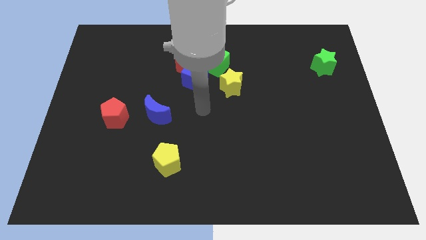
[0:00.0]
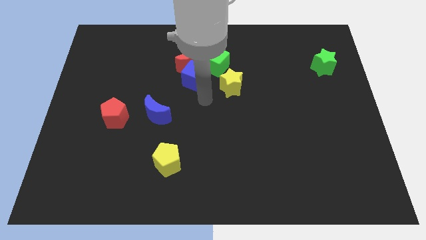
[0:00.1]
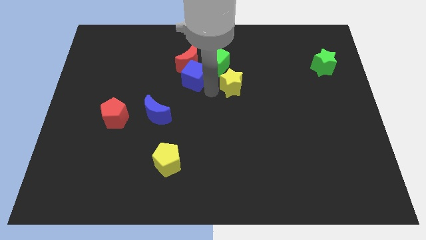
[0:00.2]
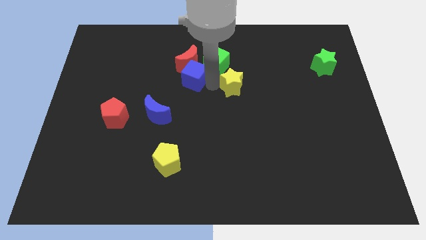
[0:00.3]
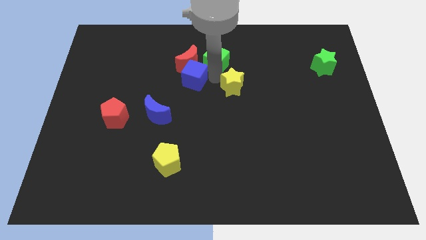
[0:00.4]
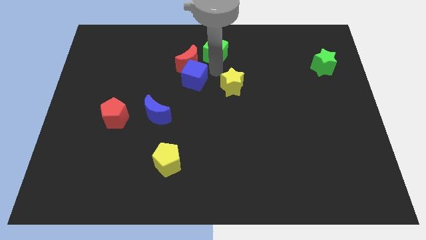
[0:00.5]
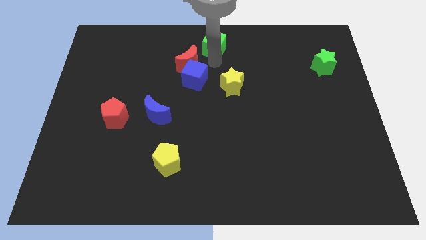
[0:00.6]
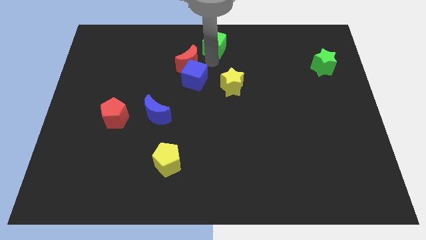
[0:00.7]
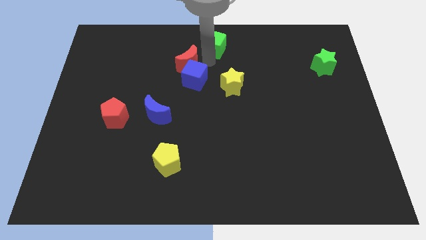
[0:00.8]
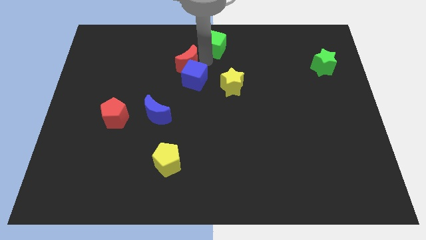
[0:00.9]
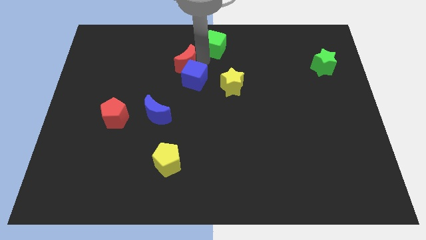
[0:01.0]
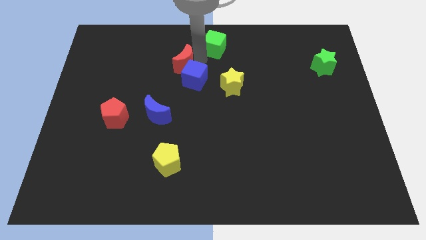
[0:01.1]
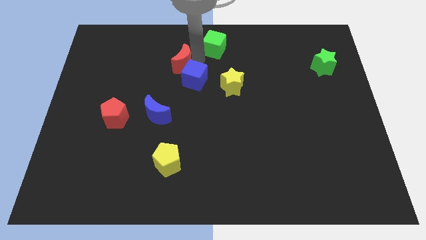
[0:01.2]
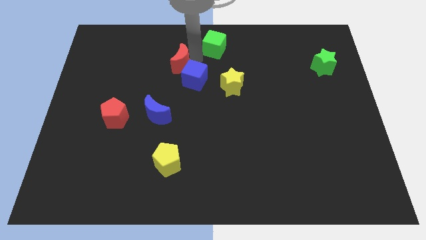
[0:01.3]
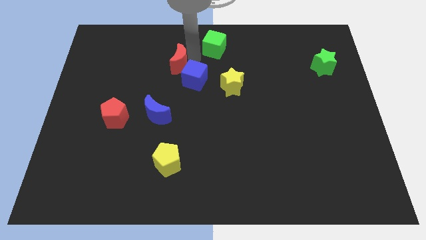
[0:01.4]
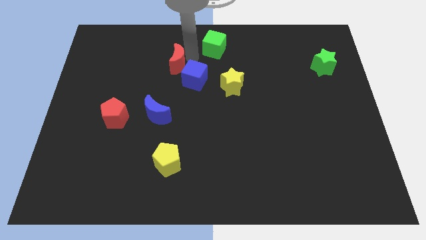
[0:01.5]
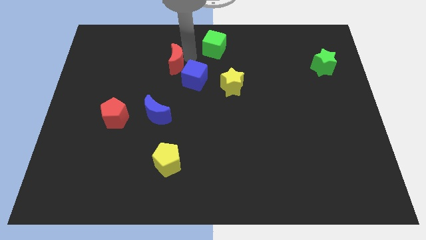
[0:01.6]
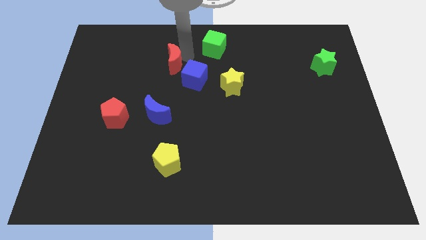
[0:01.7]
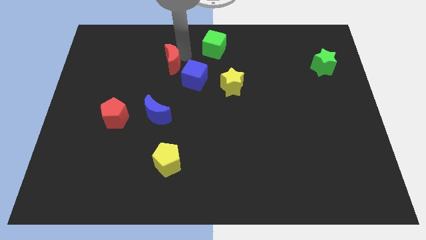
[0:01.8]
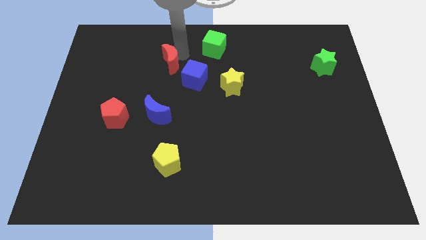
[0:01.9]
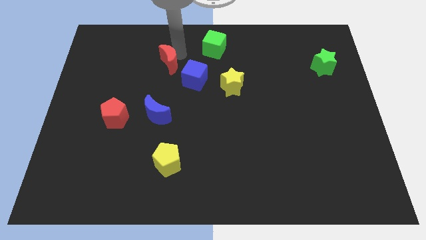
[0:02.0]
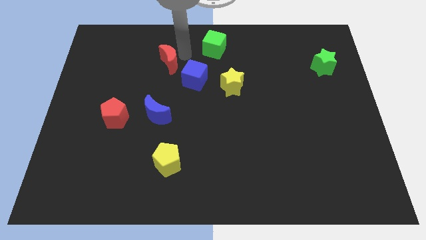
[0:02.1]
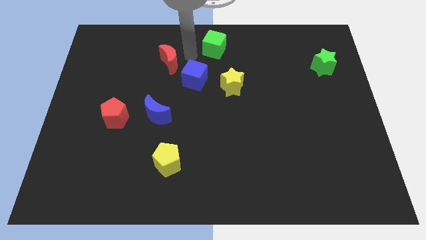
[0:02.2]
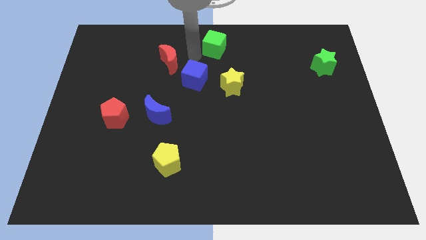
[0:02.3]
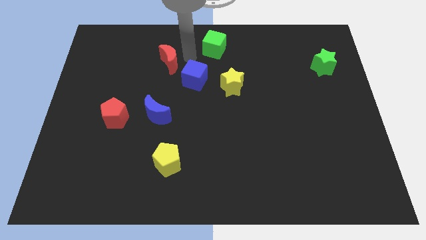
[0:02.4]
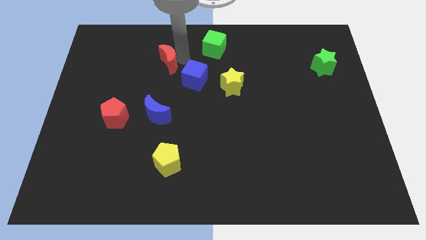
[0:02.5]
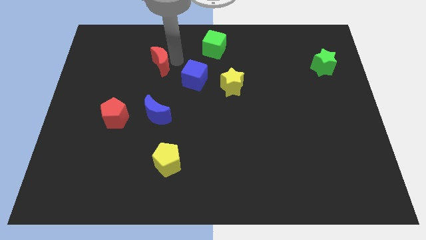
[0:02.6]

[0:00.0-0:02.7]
slightly slide the red moon left

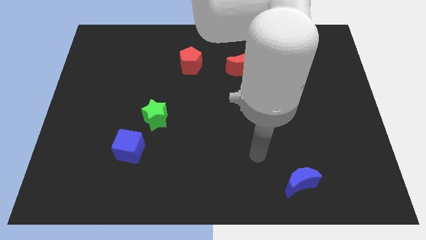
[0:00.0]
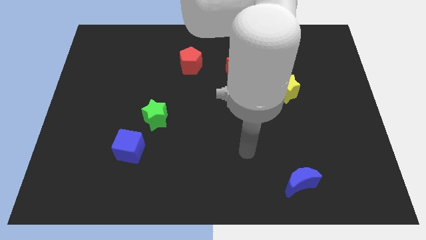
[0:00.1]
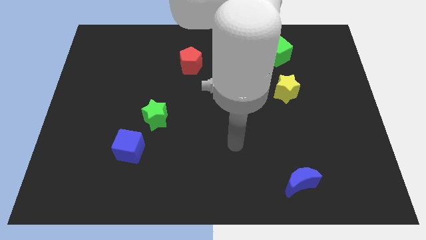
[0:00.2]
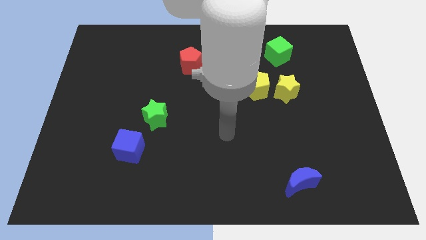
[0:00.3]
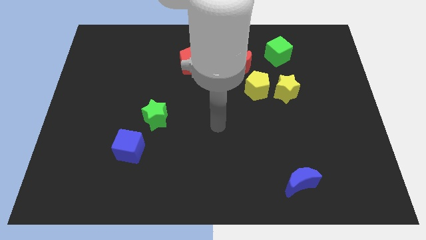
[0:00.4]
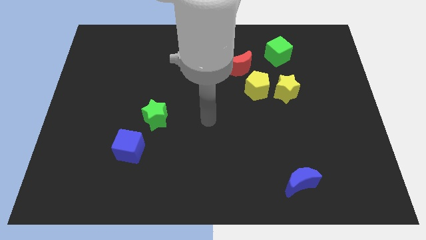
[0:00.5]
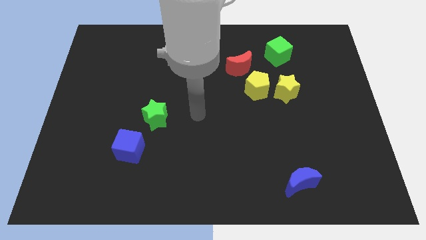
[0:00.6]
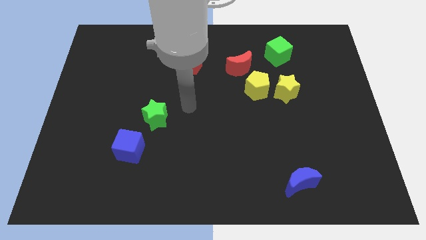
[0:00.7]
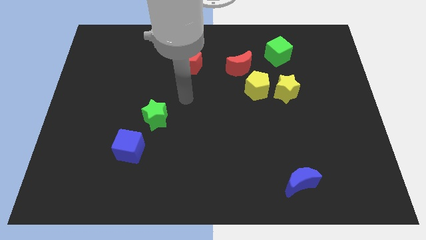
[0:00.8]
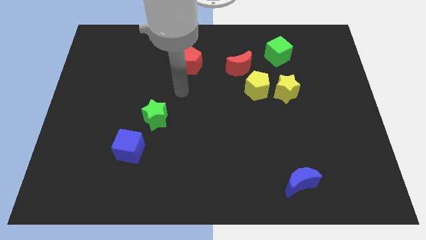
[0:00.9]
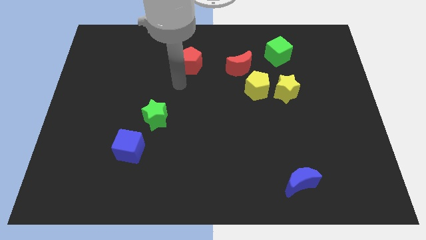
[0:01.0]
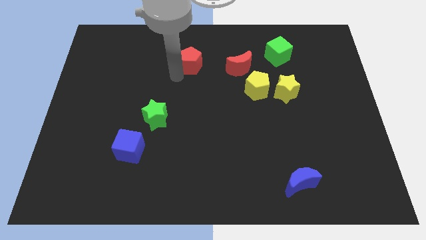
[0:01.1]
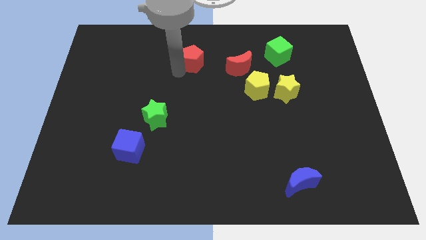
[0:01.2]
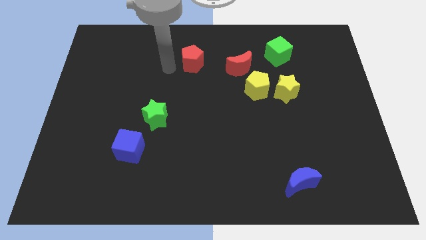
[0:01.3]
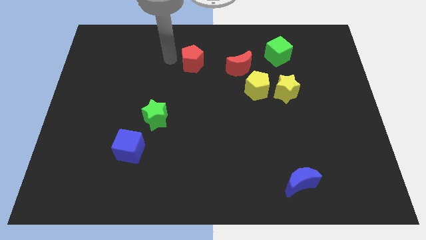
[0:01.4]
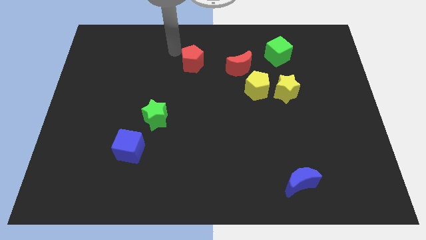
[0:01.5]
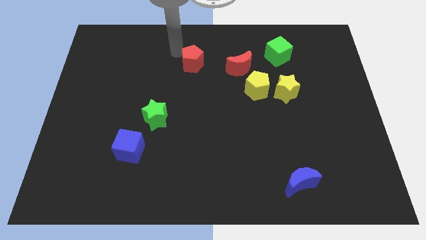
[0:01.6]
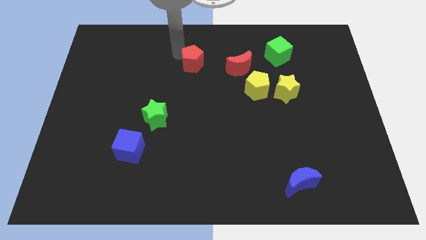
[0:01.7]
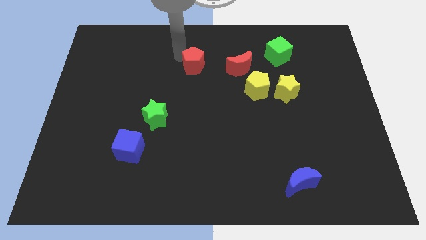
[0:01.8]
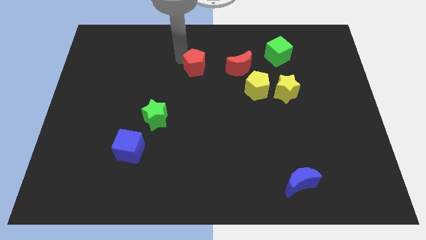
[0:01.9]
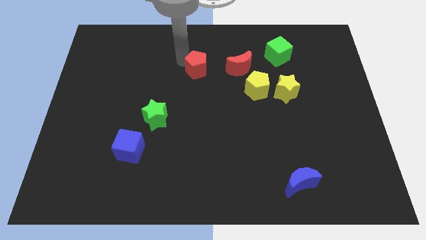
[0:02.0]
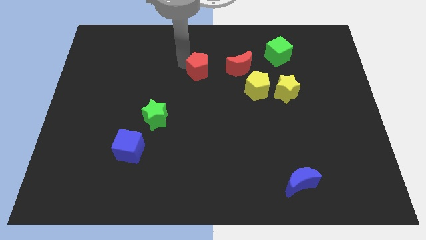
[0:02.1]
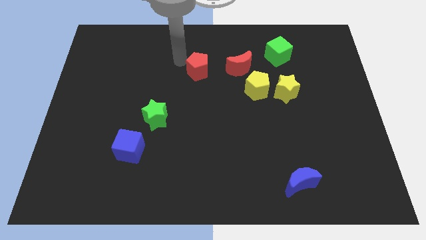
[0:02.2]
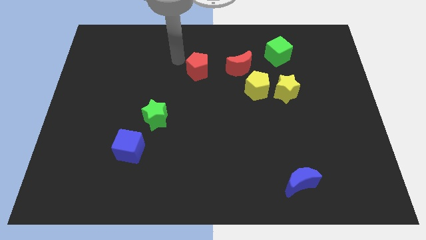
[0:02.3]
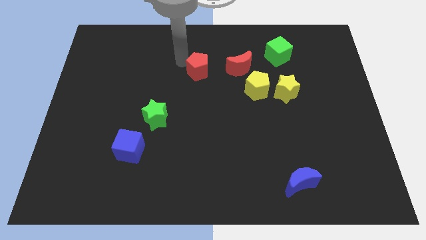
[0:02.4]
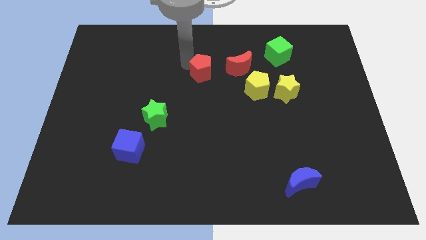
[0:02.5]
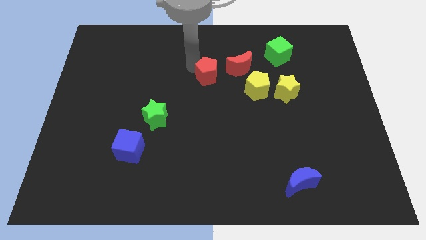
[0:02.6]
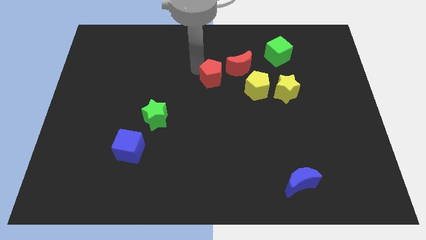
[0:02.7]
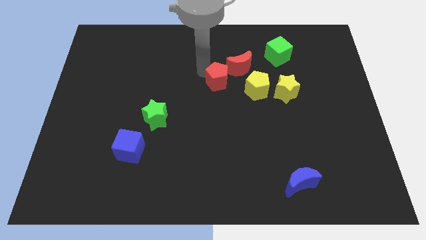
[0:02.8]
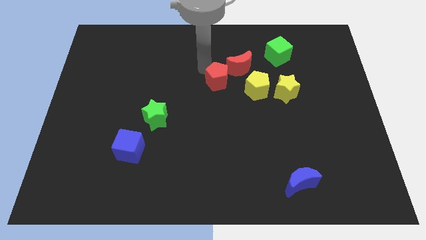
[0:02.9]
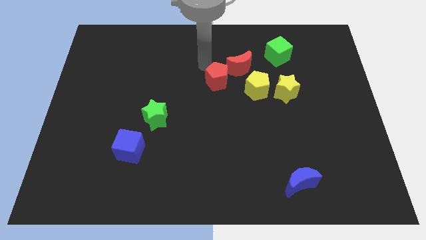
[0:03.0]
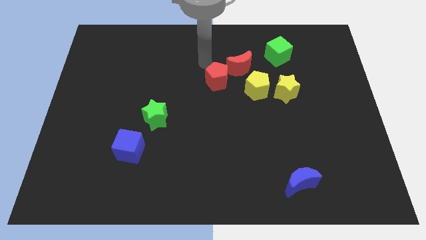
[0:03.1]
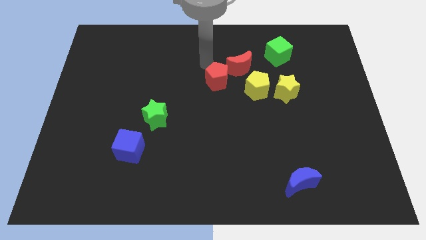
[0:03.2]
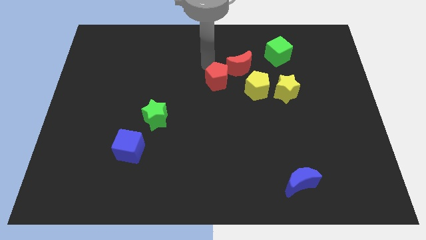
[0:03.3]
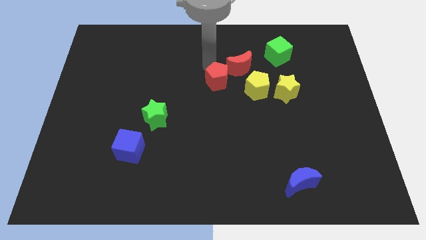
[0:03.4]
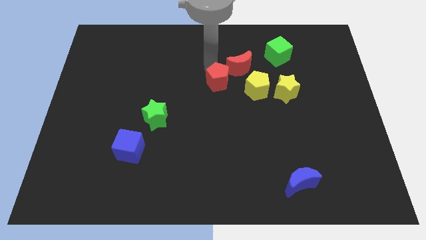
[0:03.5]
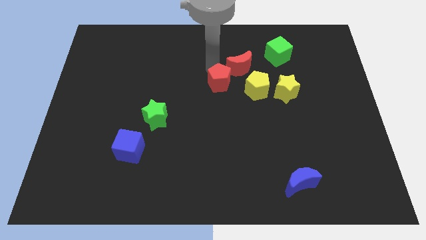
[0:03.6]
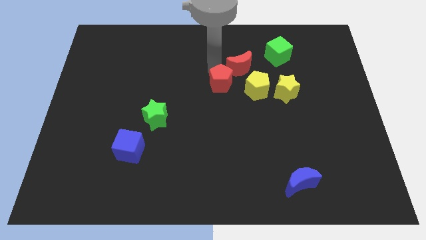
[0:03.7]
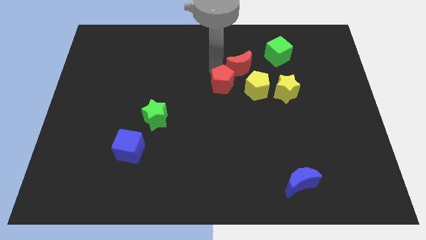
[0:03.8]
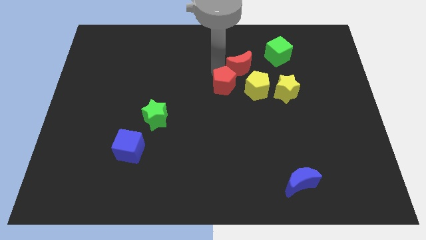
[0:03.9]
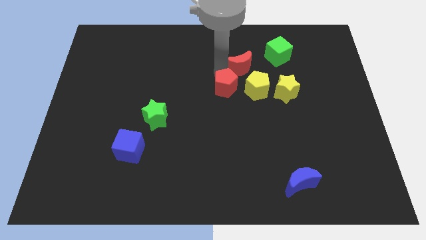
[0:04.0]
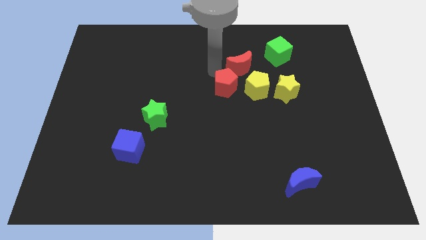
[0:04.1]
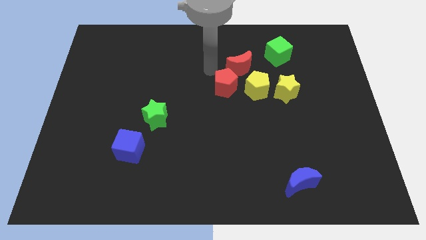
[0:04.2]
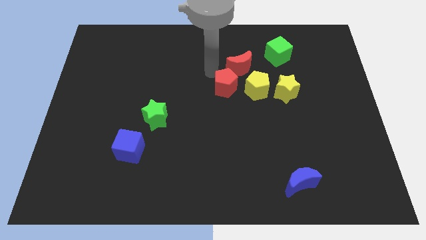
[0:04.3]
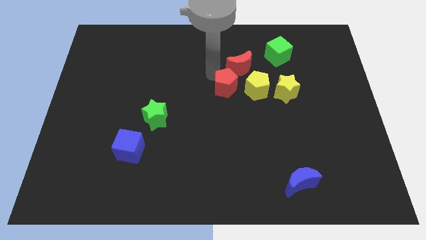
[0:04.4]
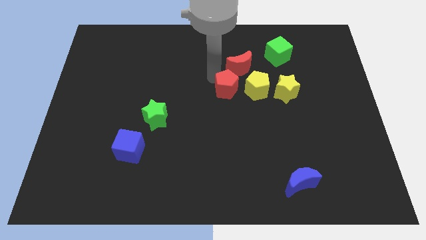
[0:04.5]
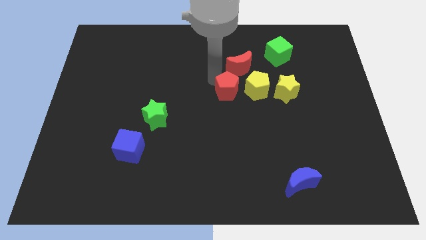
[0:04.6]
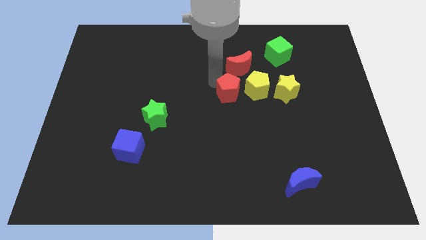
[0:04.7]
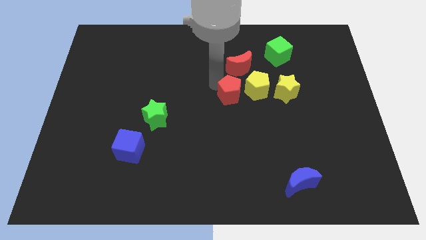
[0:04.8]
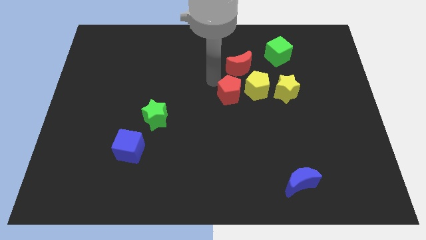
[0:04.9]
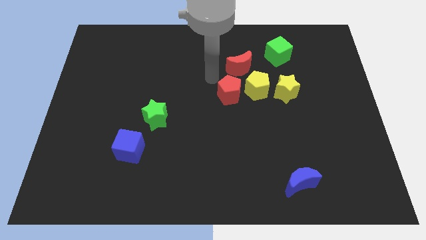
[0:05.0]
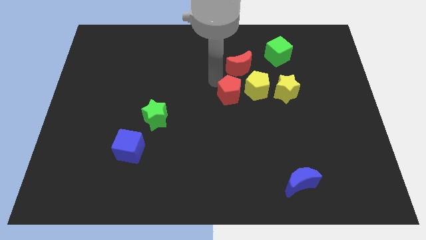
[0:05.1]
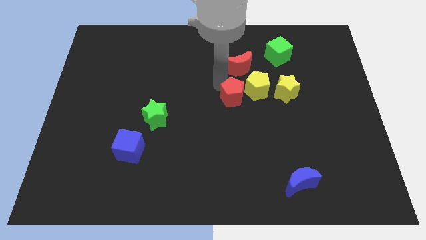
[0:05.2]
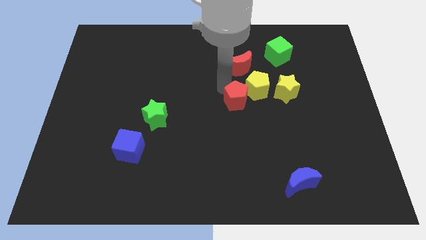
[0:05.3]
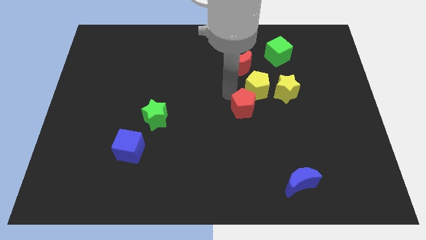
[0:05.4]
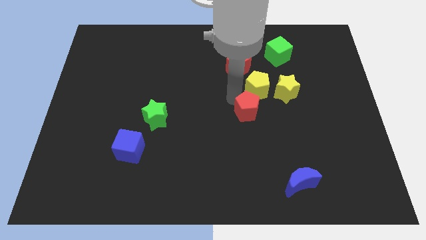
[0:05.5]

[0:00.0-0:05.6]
slide the red pentagon downwards and right diagonally
